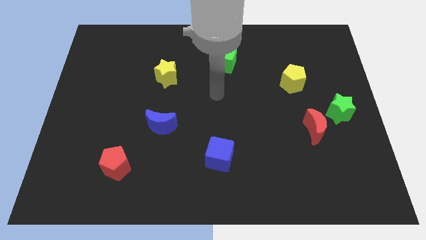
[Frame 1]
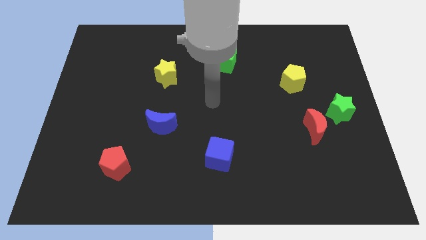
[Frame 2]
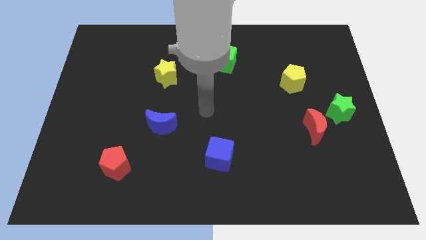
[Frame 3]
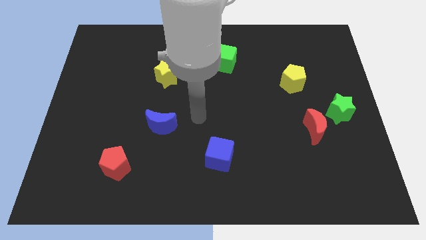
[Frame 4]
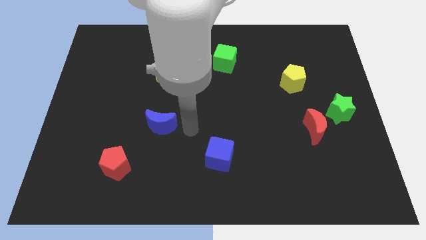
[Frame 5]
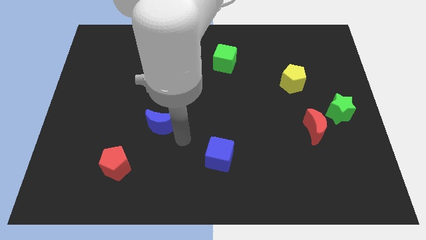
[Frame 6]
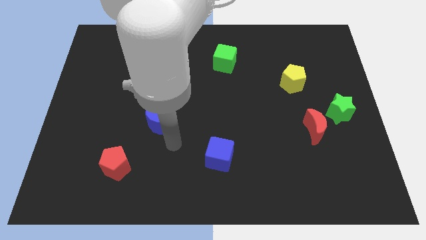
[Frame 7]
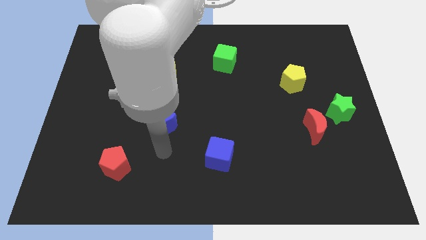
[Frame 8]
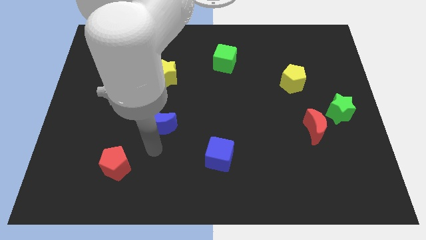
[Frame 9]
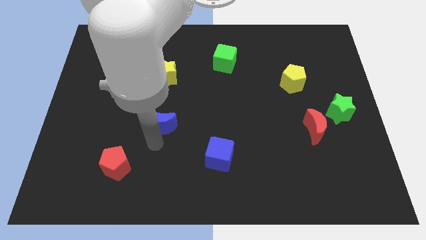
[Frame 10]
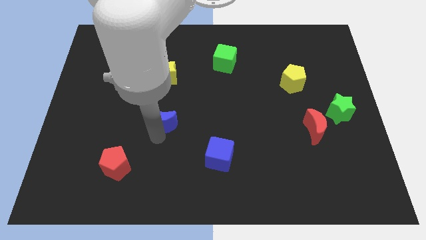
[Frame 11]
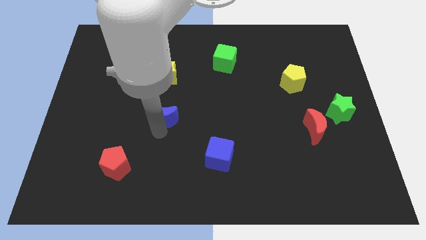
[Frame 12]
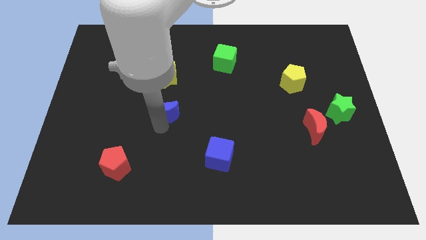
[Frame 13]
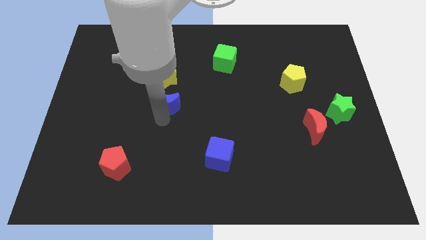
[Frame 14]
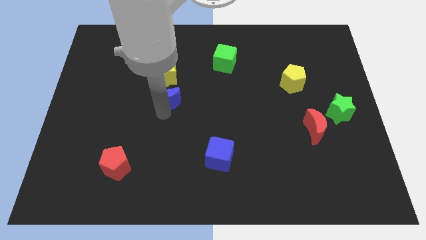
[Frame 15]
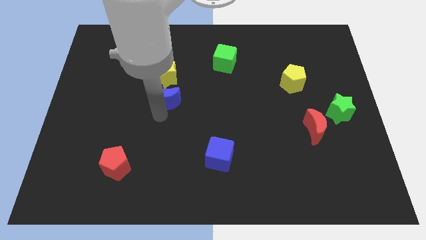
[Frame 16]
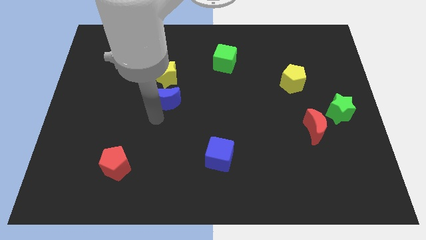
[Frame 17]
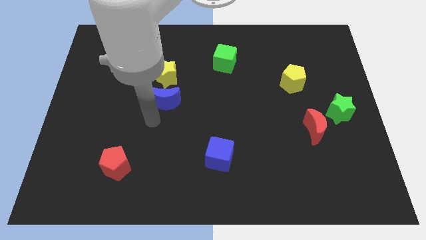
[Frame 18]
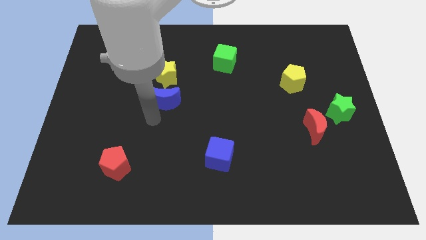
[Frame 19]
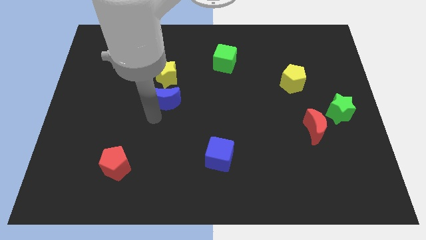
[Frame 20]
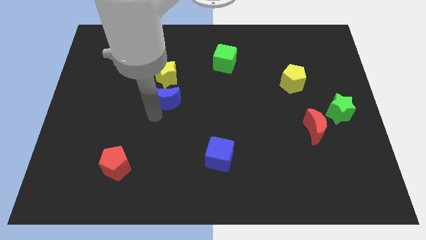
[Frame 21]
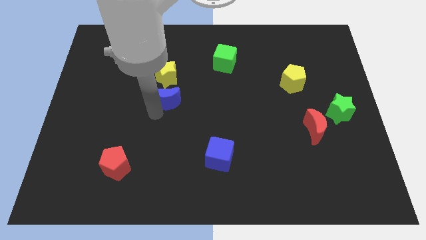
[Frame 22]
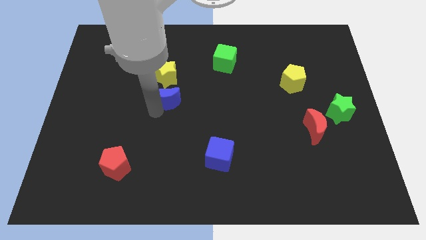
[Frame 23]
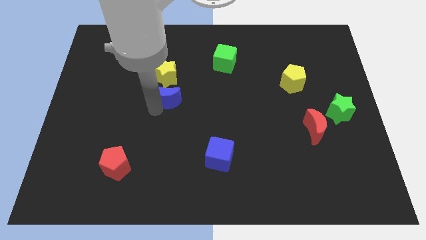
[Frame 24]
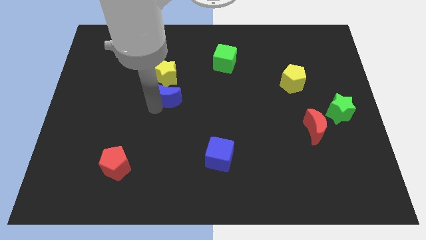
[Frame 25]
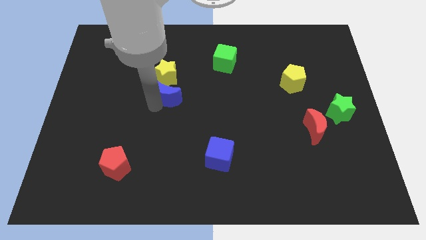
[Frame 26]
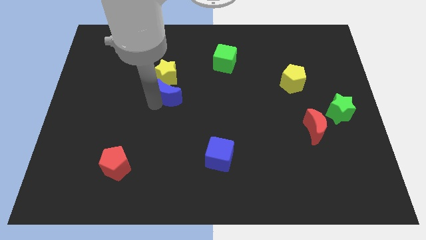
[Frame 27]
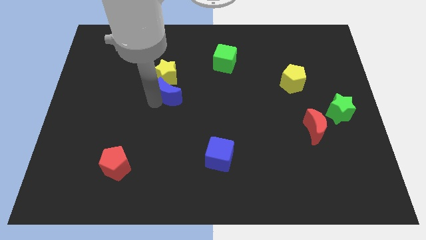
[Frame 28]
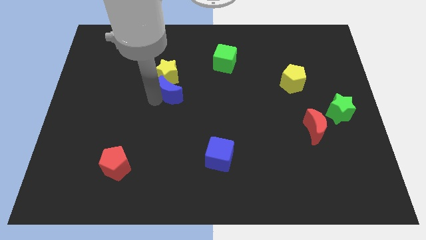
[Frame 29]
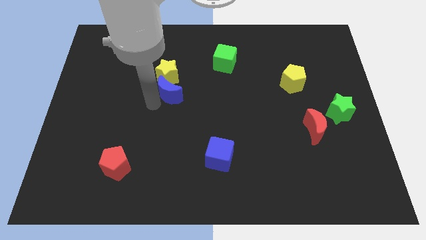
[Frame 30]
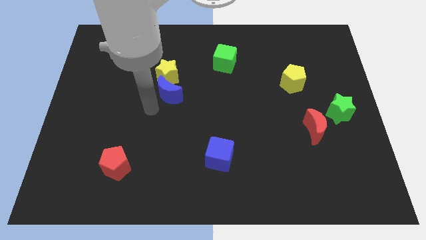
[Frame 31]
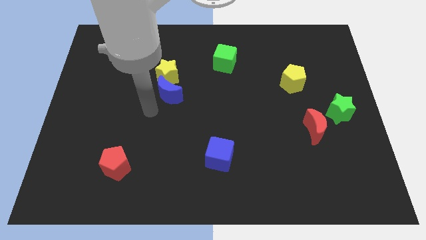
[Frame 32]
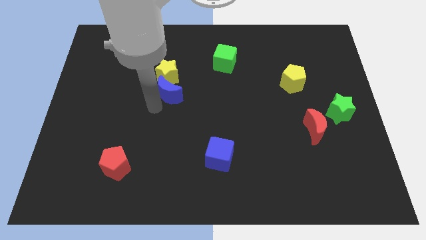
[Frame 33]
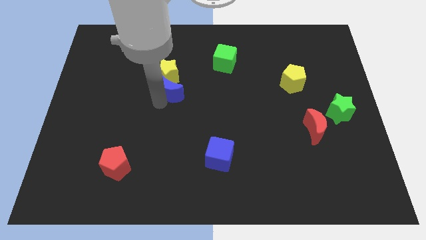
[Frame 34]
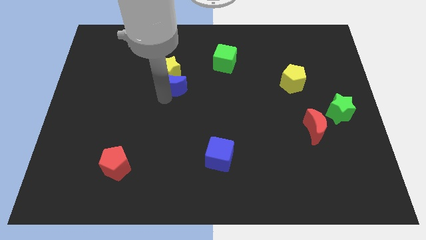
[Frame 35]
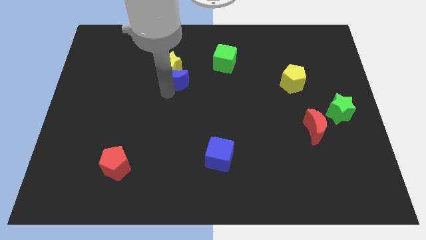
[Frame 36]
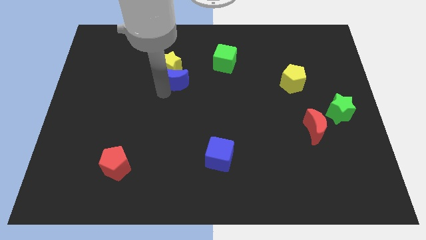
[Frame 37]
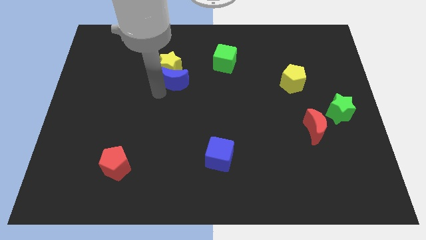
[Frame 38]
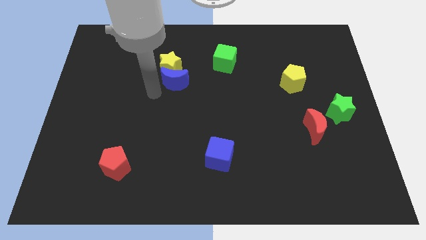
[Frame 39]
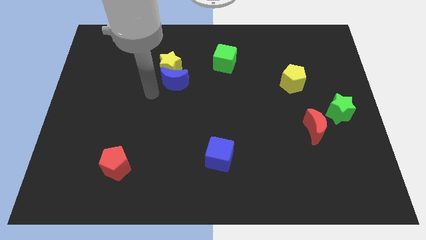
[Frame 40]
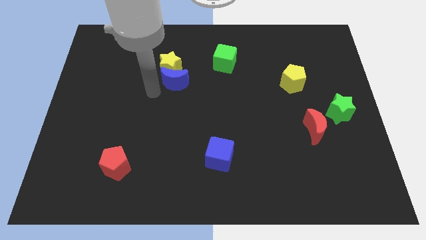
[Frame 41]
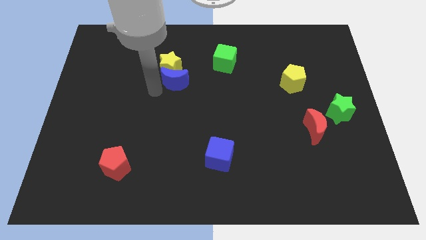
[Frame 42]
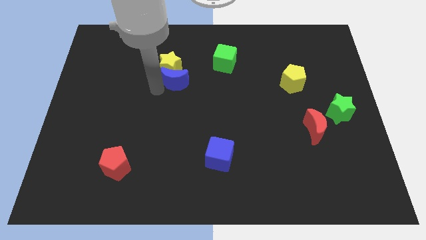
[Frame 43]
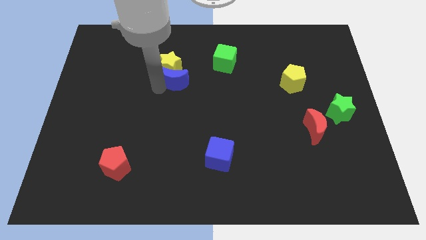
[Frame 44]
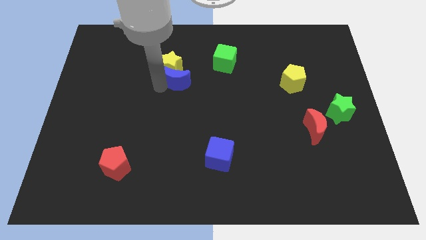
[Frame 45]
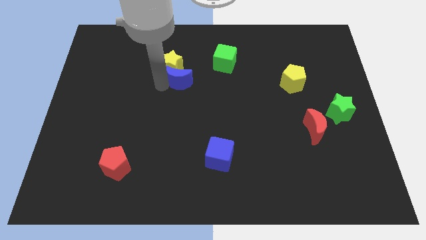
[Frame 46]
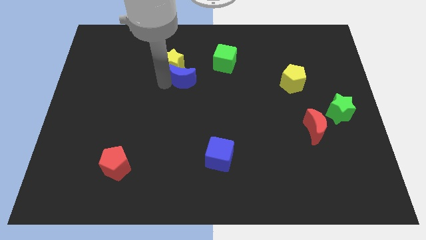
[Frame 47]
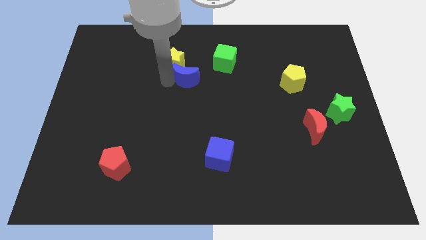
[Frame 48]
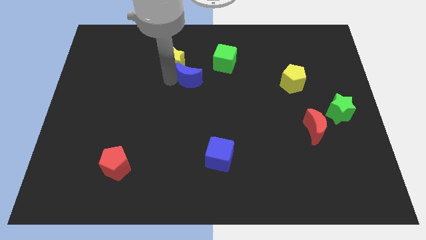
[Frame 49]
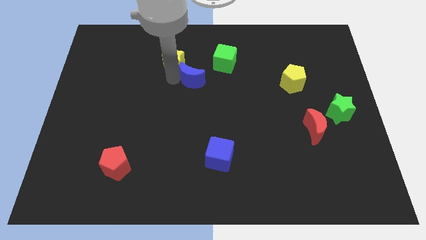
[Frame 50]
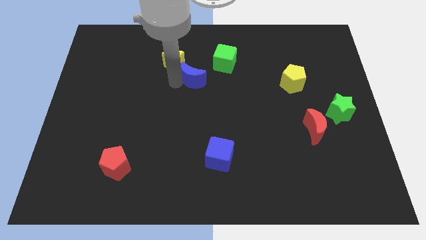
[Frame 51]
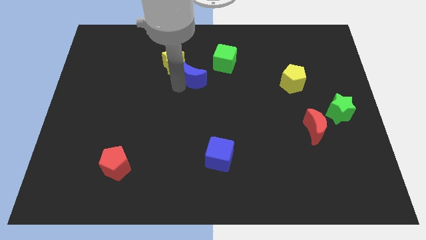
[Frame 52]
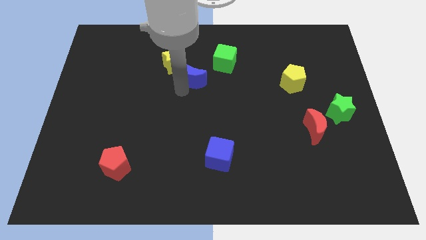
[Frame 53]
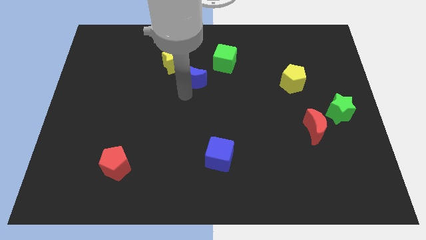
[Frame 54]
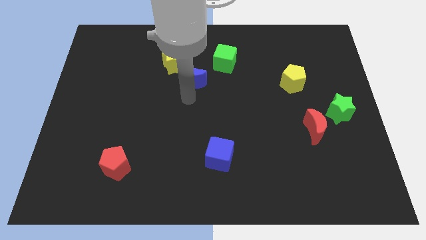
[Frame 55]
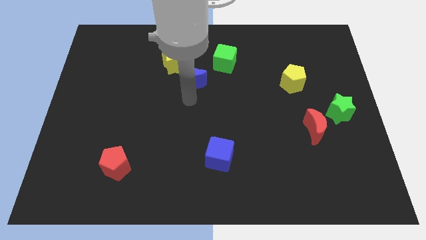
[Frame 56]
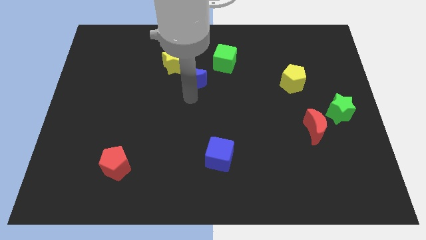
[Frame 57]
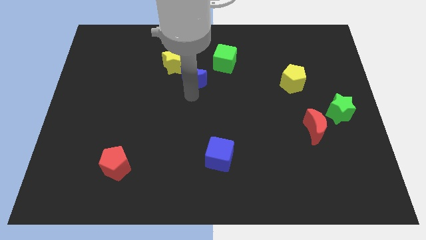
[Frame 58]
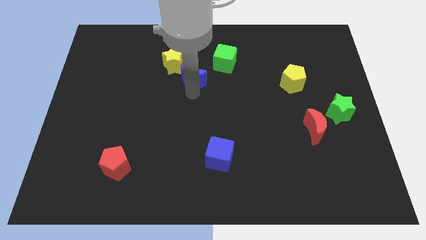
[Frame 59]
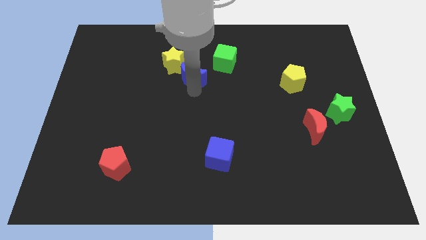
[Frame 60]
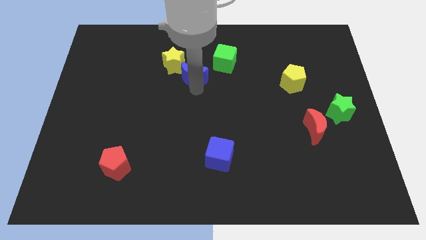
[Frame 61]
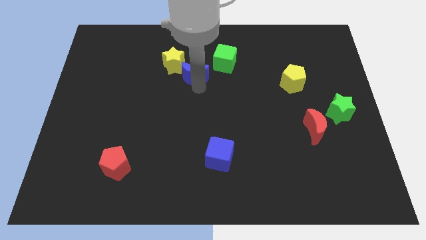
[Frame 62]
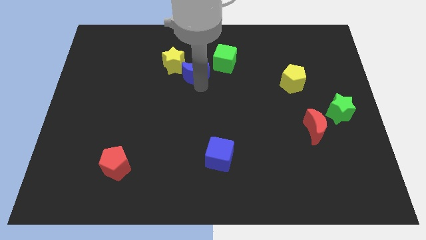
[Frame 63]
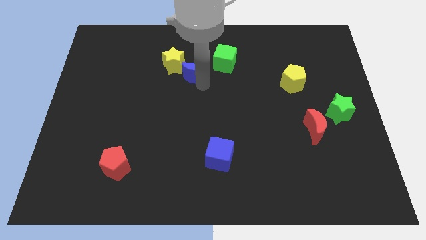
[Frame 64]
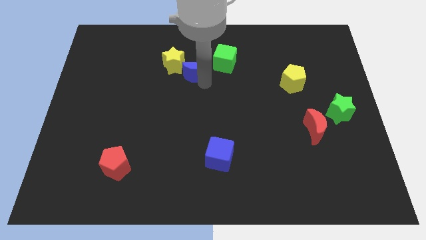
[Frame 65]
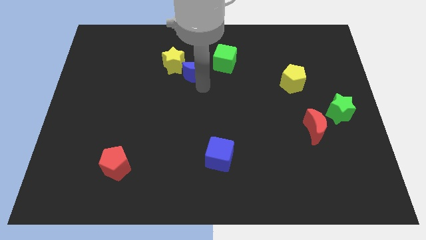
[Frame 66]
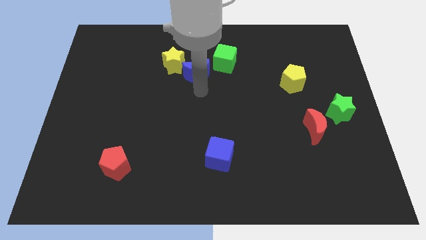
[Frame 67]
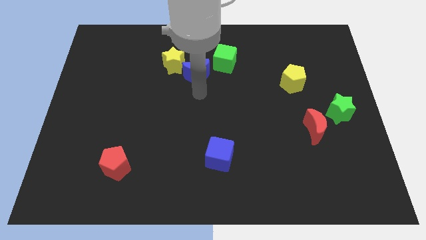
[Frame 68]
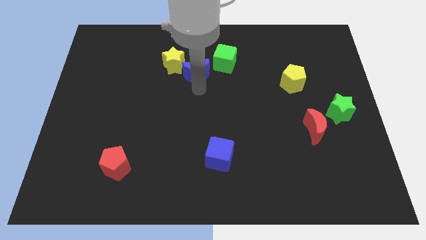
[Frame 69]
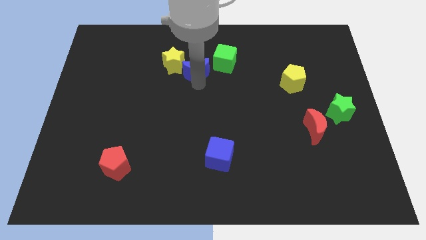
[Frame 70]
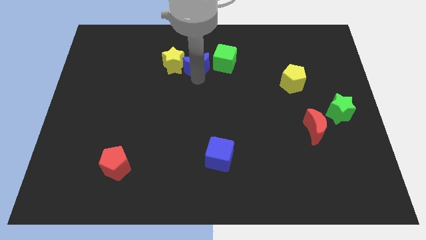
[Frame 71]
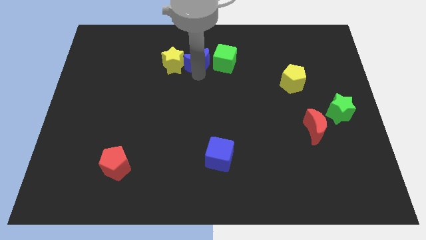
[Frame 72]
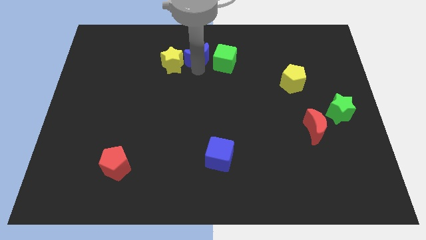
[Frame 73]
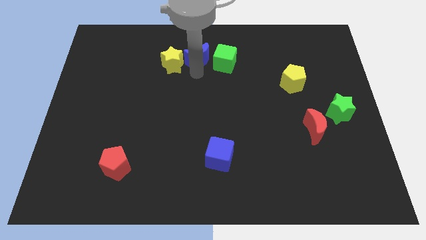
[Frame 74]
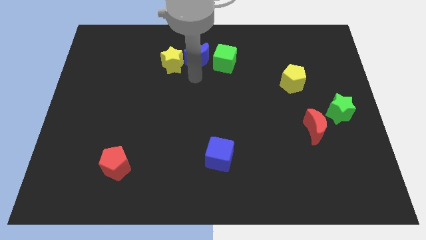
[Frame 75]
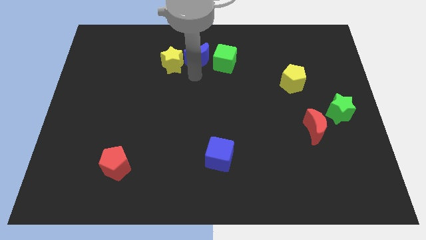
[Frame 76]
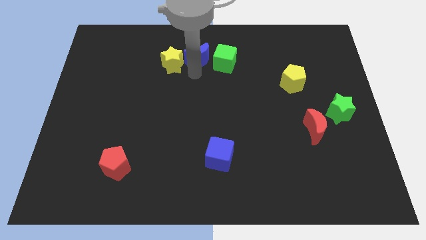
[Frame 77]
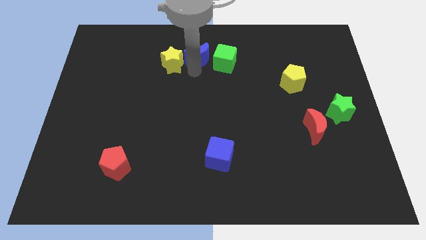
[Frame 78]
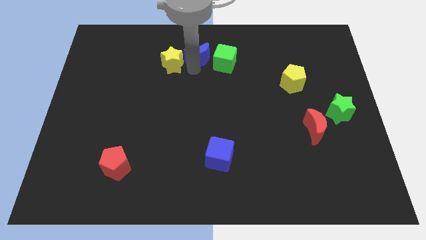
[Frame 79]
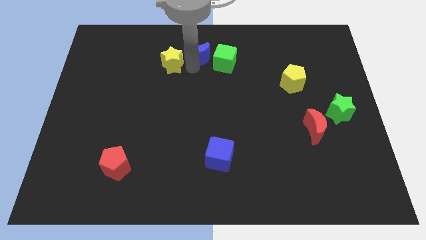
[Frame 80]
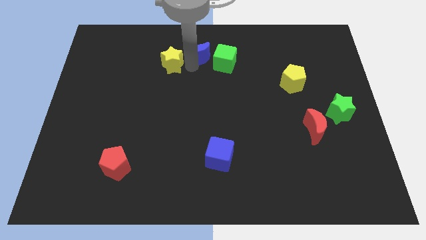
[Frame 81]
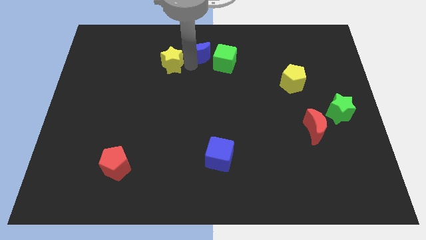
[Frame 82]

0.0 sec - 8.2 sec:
push the blue moon to the towards your base
